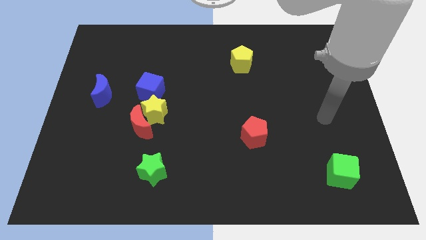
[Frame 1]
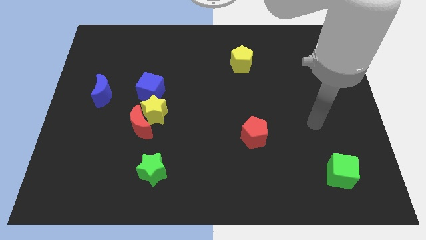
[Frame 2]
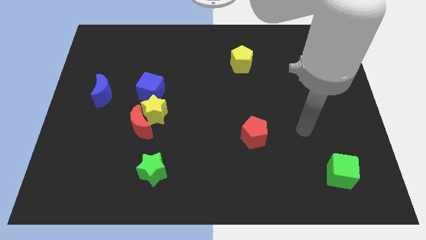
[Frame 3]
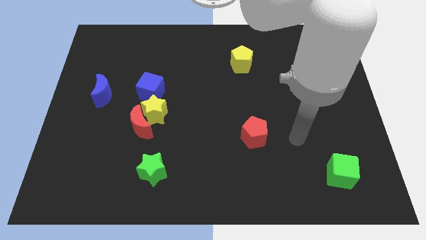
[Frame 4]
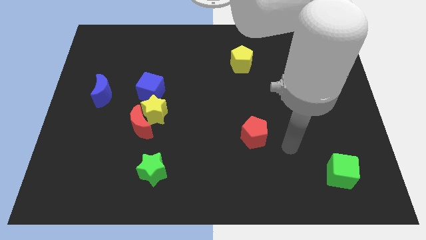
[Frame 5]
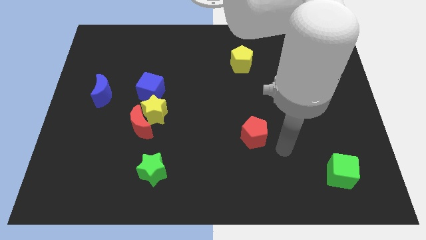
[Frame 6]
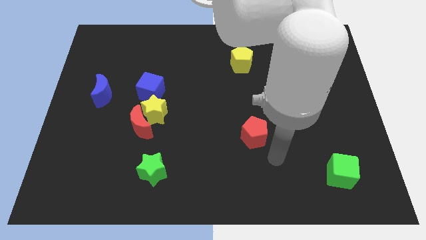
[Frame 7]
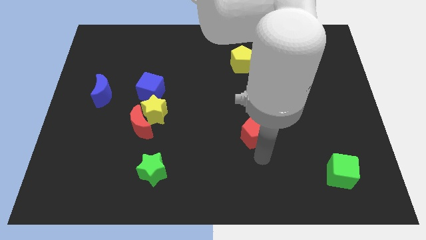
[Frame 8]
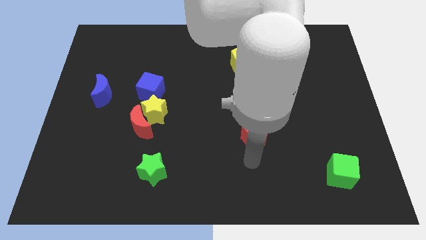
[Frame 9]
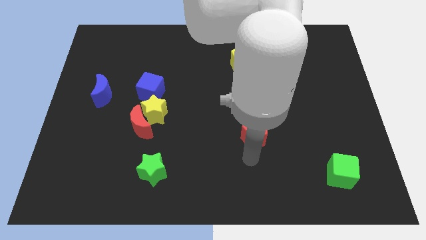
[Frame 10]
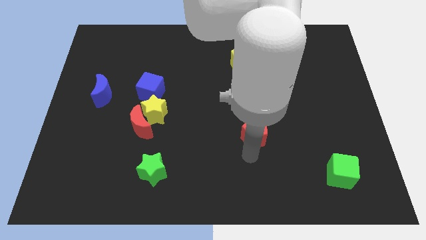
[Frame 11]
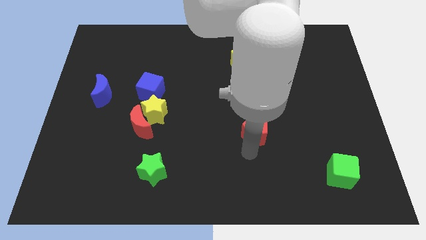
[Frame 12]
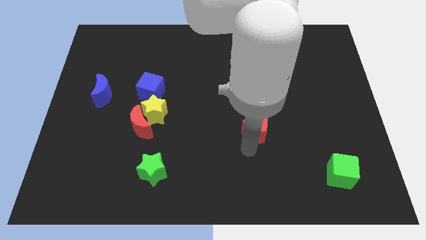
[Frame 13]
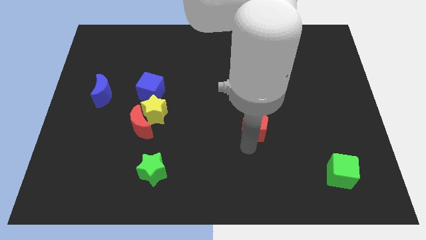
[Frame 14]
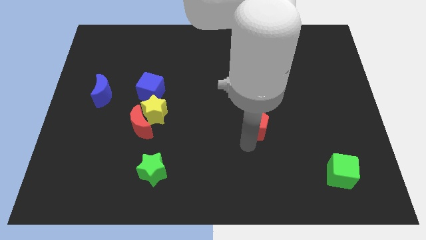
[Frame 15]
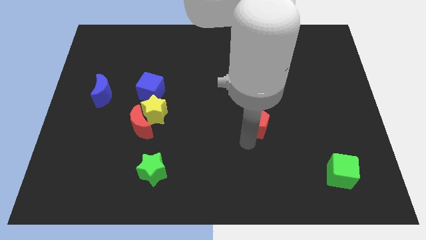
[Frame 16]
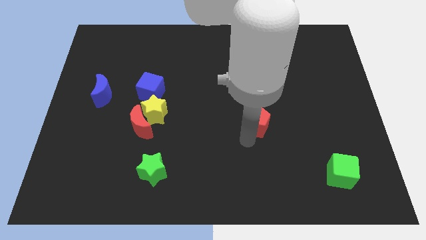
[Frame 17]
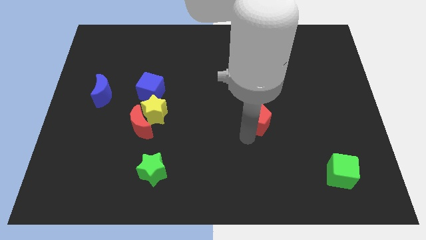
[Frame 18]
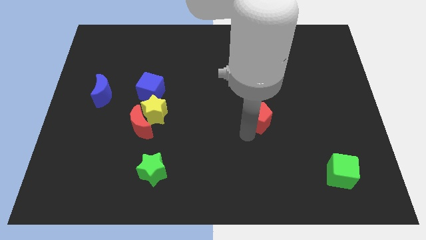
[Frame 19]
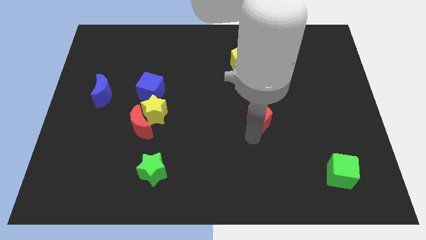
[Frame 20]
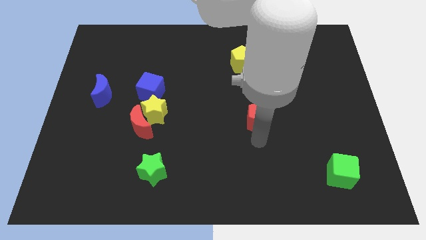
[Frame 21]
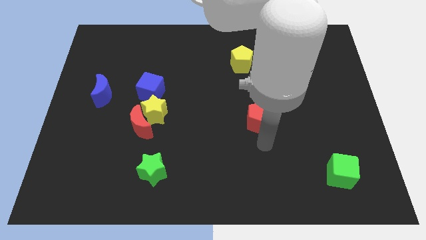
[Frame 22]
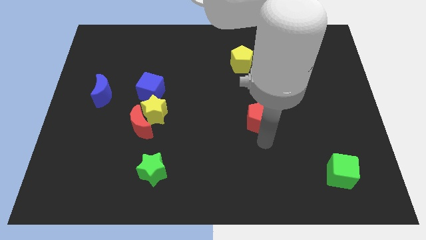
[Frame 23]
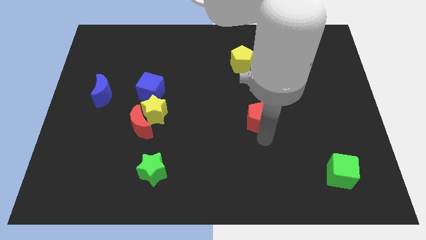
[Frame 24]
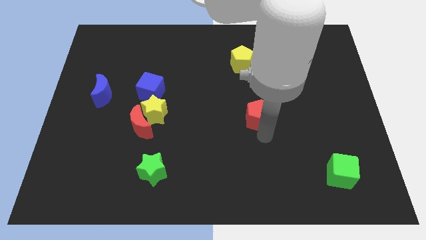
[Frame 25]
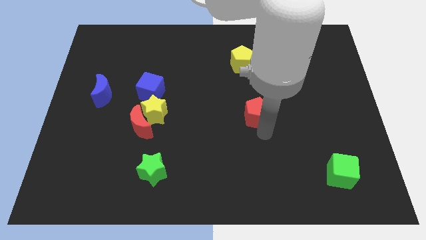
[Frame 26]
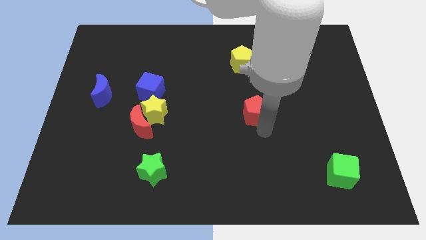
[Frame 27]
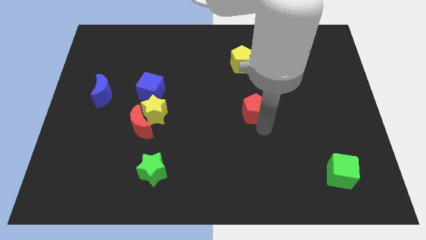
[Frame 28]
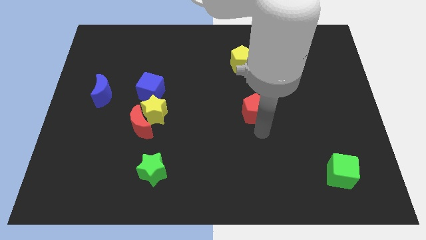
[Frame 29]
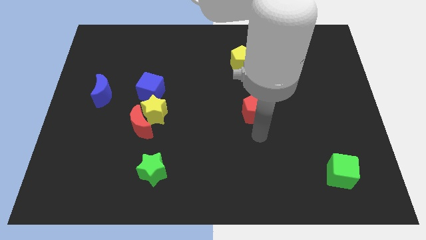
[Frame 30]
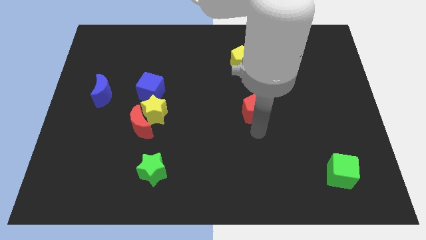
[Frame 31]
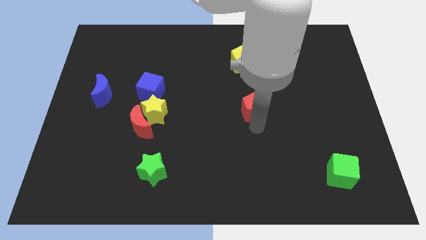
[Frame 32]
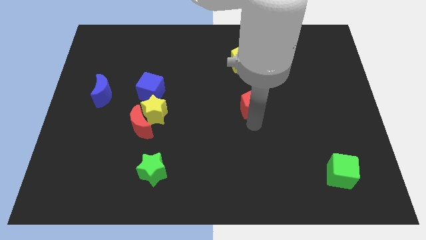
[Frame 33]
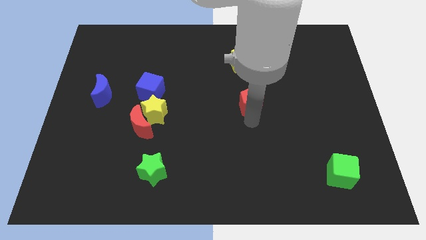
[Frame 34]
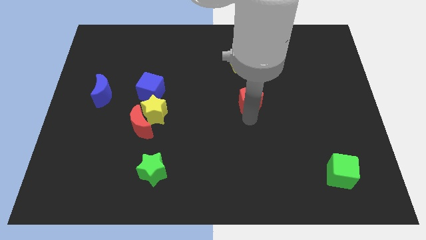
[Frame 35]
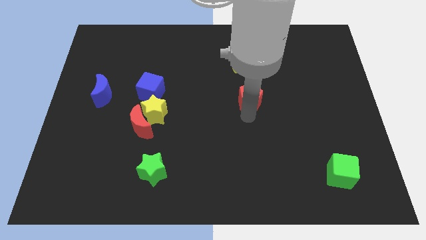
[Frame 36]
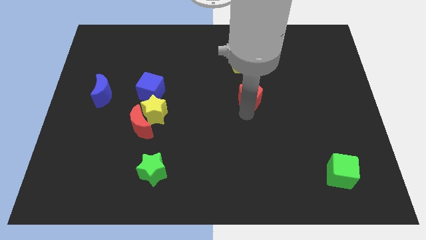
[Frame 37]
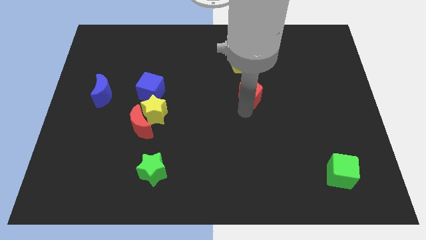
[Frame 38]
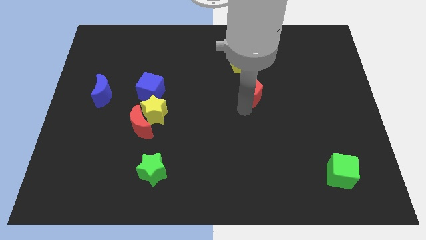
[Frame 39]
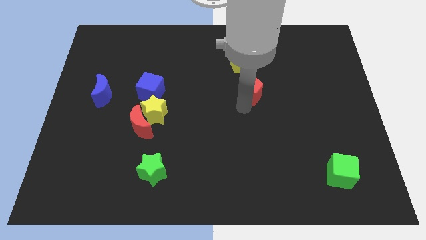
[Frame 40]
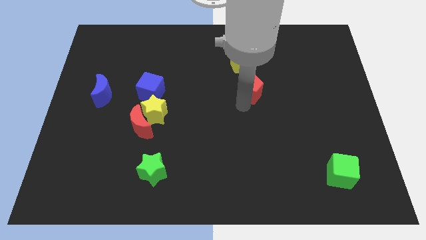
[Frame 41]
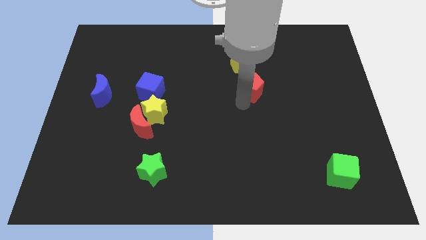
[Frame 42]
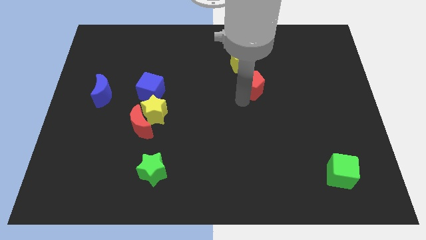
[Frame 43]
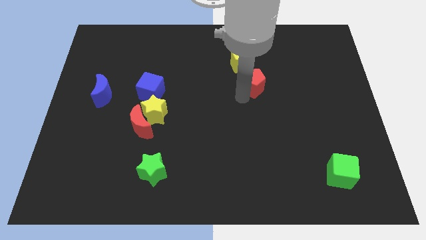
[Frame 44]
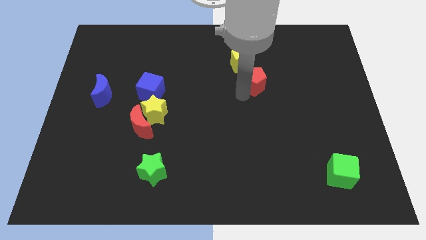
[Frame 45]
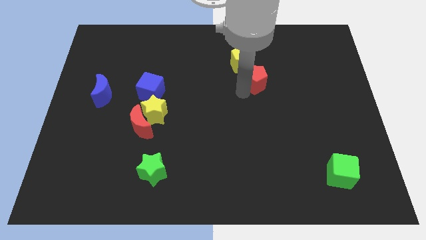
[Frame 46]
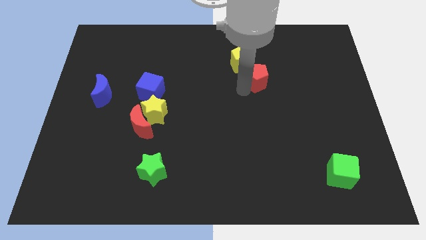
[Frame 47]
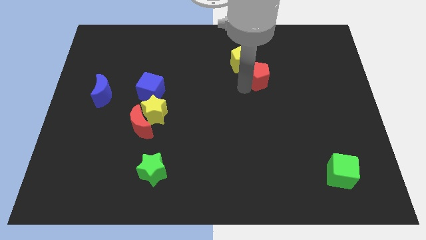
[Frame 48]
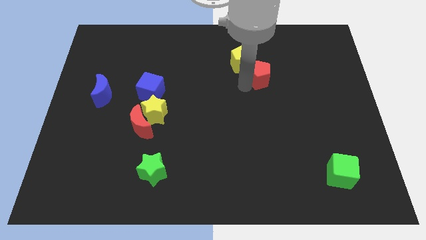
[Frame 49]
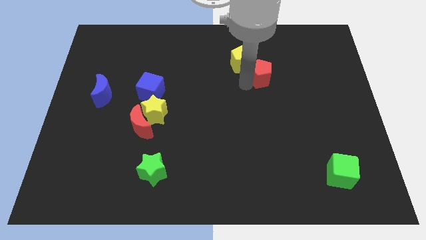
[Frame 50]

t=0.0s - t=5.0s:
push the red pentagon to the right side of the yellow pentagon

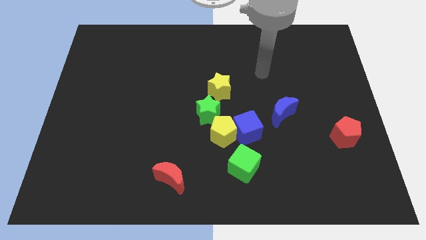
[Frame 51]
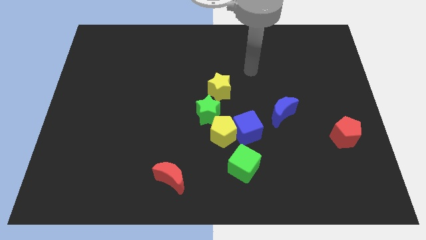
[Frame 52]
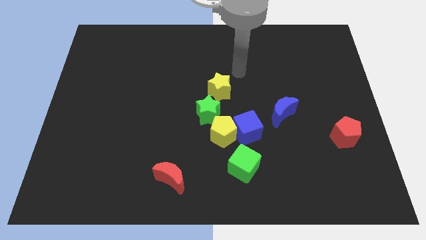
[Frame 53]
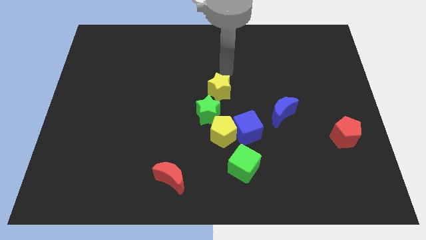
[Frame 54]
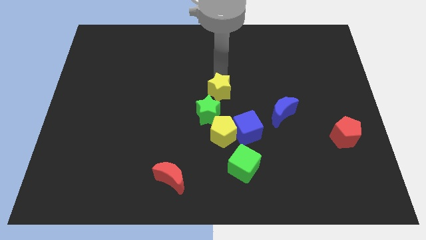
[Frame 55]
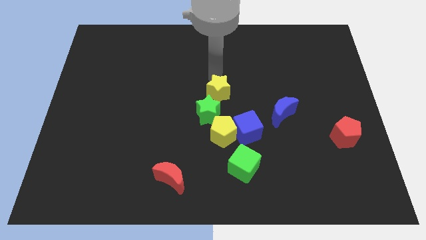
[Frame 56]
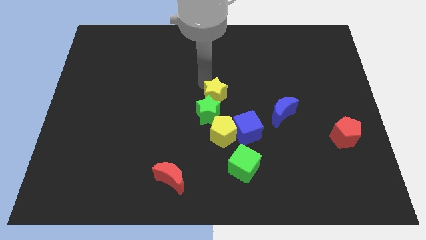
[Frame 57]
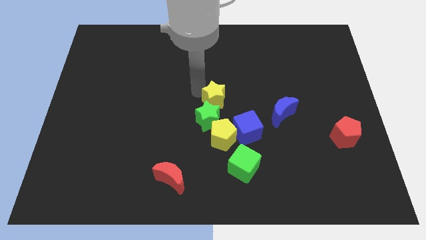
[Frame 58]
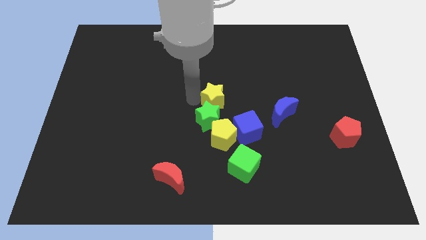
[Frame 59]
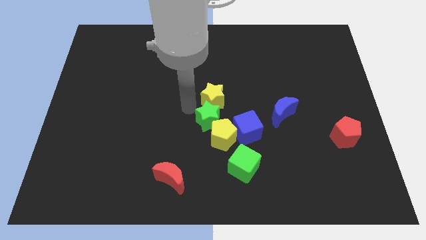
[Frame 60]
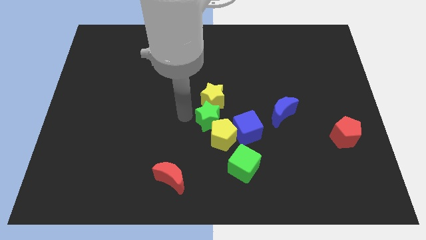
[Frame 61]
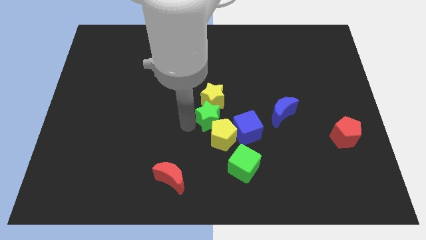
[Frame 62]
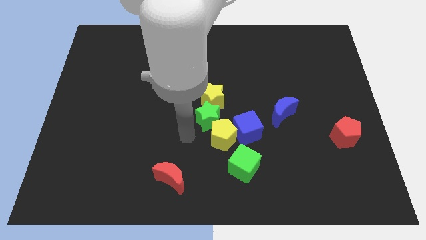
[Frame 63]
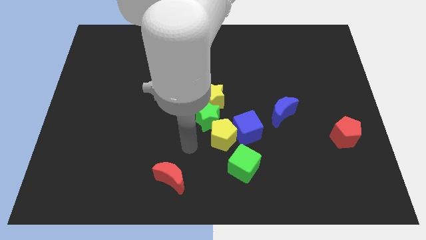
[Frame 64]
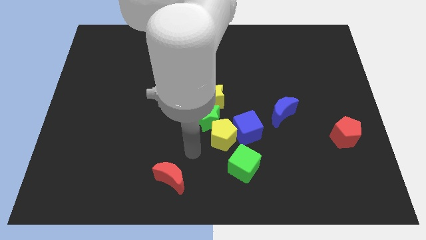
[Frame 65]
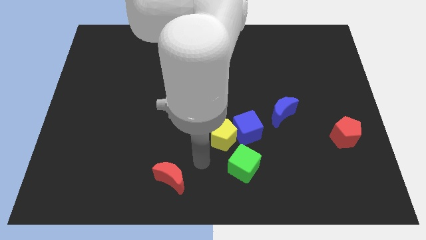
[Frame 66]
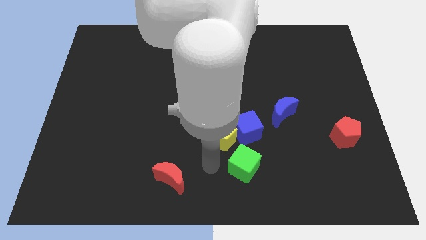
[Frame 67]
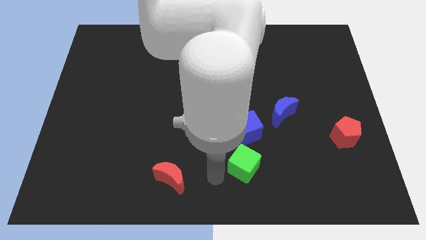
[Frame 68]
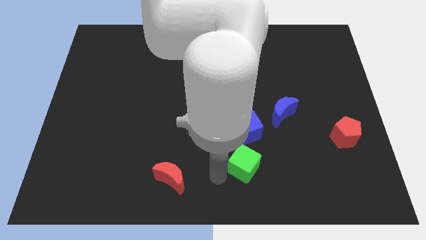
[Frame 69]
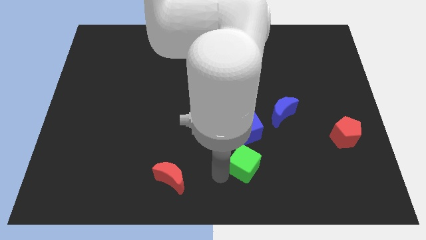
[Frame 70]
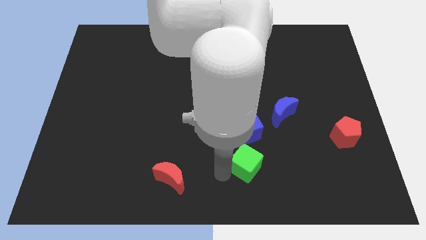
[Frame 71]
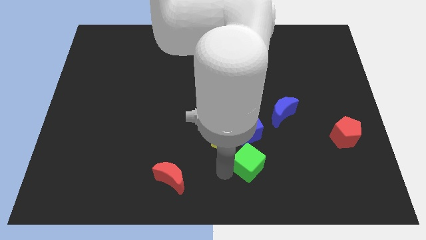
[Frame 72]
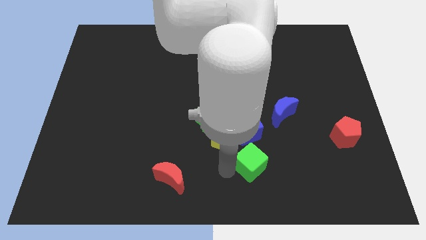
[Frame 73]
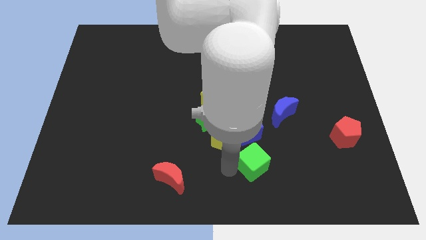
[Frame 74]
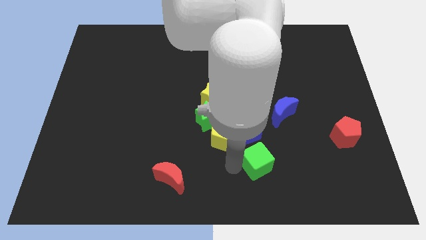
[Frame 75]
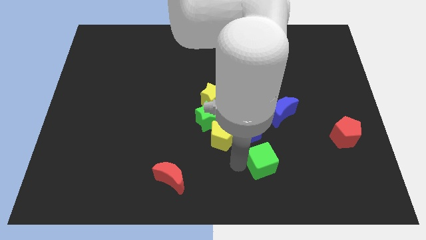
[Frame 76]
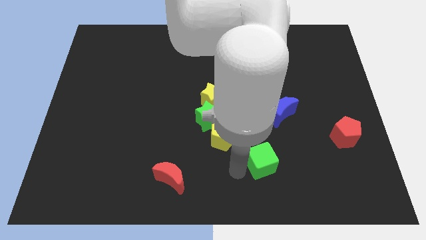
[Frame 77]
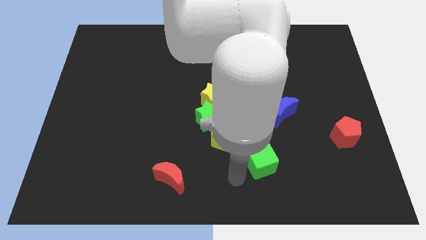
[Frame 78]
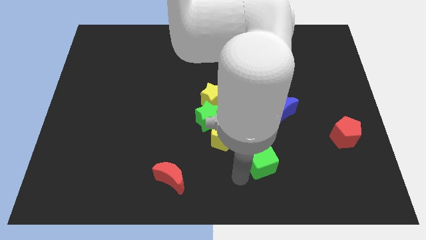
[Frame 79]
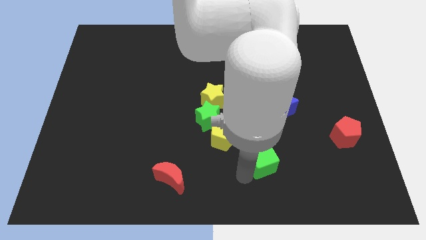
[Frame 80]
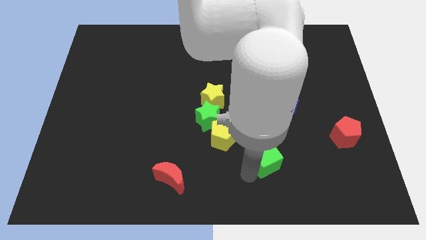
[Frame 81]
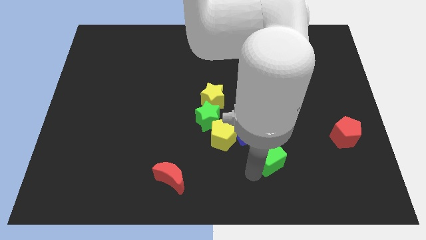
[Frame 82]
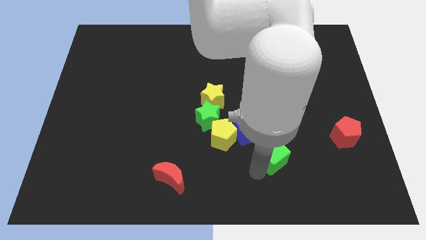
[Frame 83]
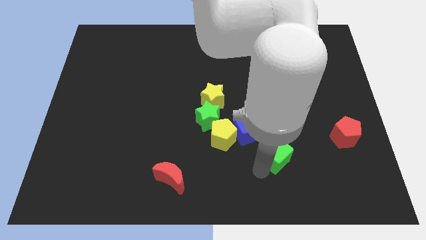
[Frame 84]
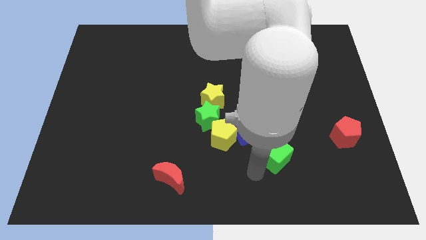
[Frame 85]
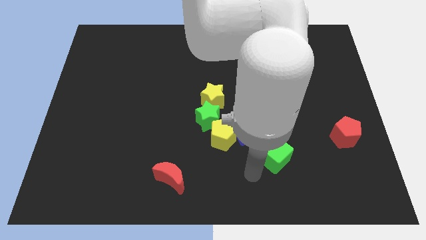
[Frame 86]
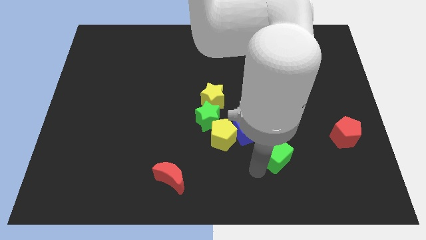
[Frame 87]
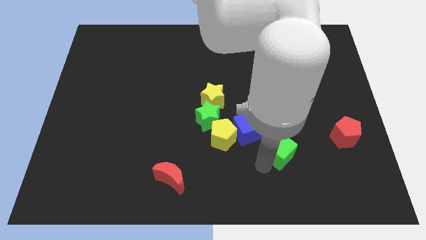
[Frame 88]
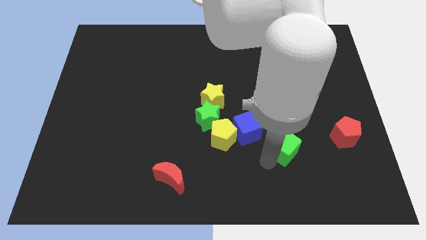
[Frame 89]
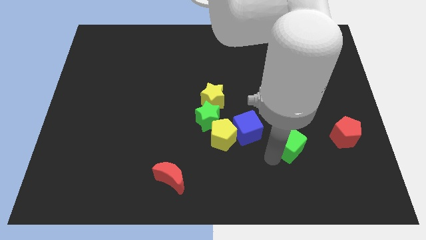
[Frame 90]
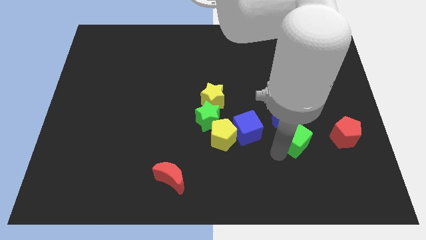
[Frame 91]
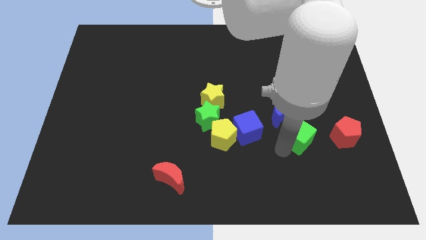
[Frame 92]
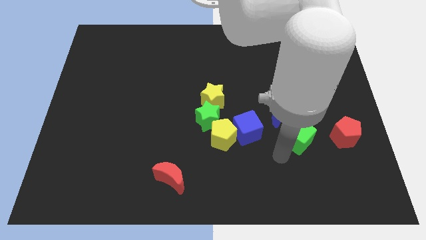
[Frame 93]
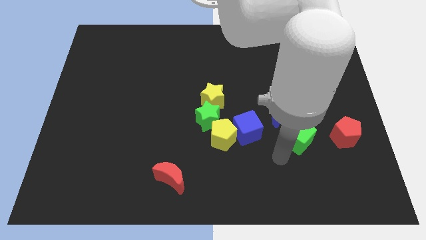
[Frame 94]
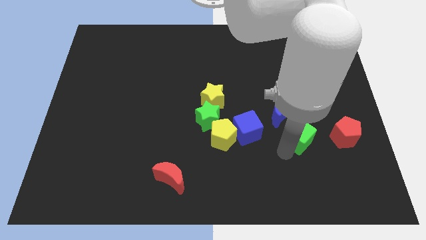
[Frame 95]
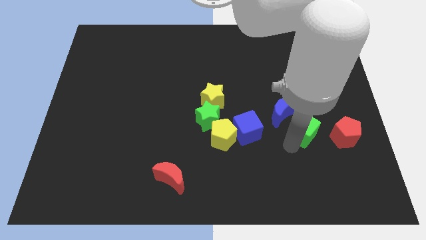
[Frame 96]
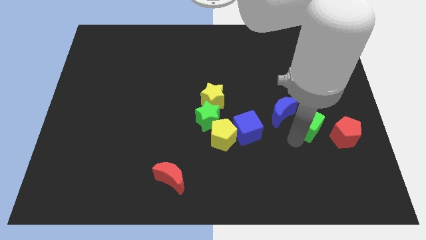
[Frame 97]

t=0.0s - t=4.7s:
put the green cube to the top left side of the red pentagon
